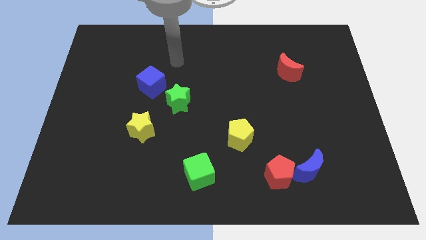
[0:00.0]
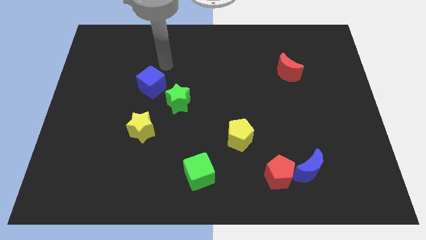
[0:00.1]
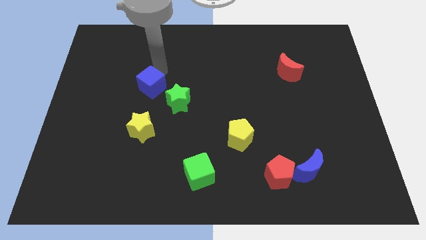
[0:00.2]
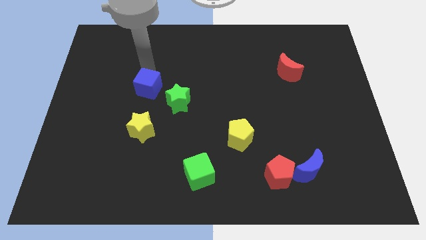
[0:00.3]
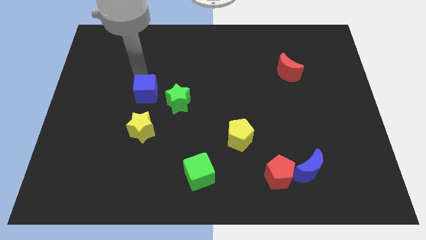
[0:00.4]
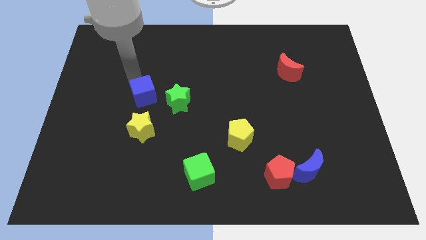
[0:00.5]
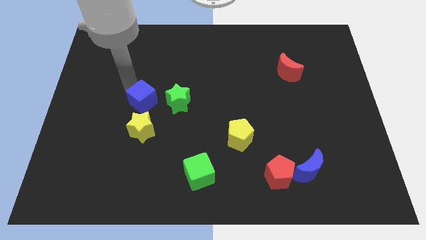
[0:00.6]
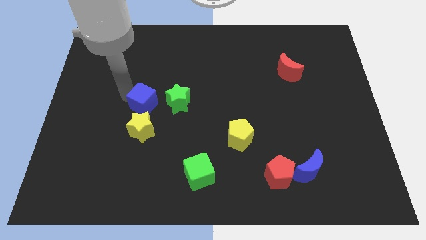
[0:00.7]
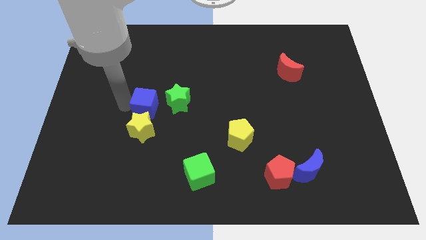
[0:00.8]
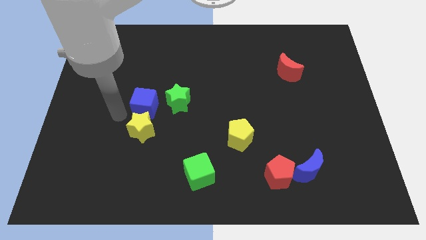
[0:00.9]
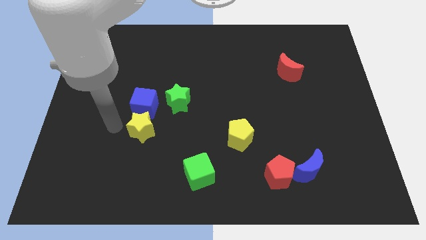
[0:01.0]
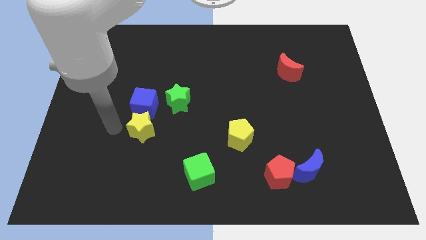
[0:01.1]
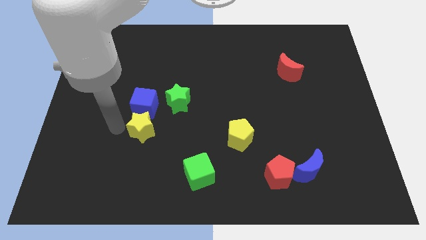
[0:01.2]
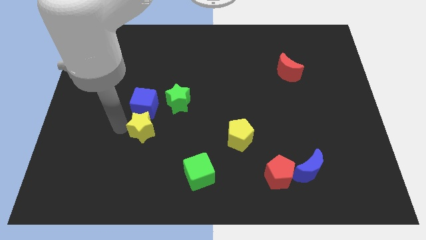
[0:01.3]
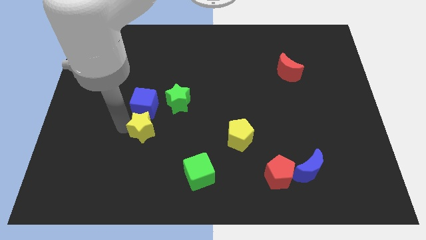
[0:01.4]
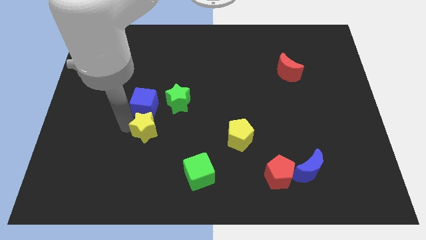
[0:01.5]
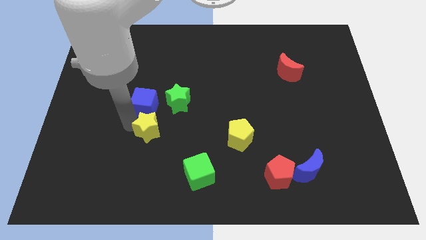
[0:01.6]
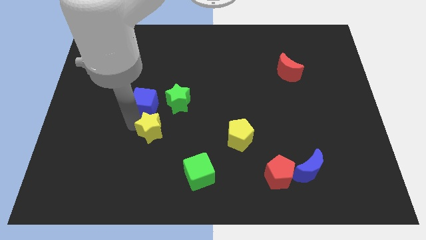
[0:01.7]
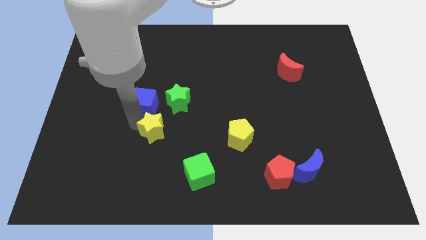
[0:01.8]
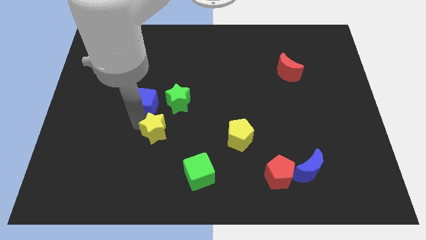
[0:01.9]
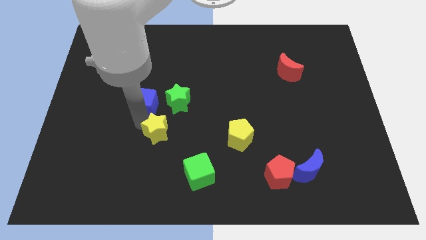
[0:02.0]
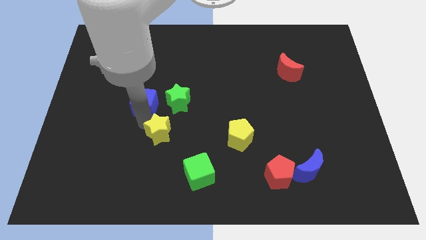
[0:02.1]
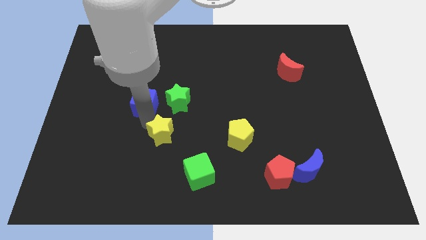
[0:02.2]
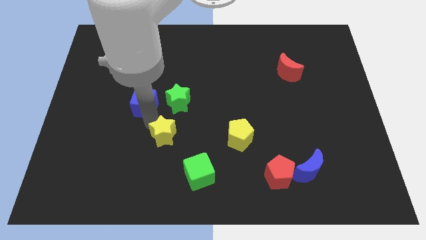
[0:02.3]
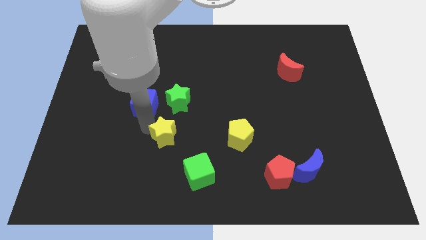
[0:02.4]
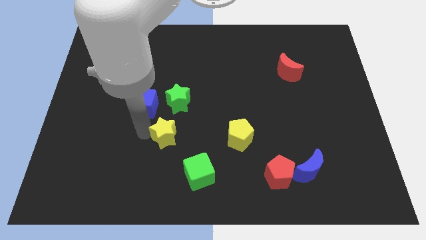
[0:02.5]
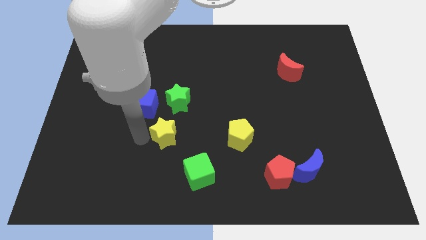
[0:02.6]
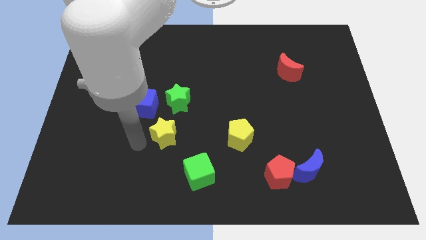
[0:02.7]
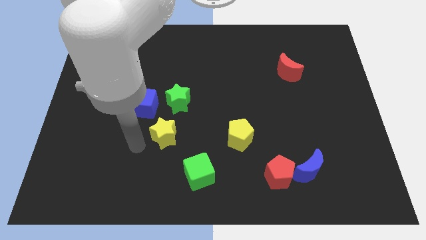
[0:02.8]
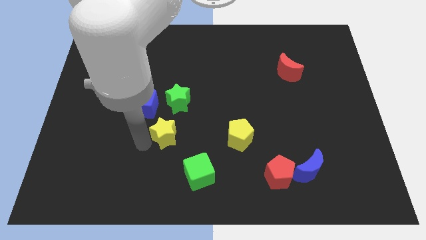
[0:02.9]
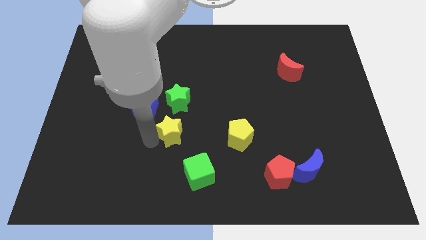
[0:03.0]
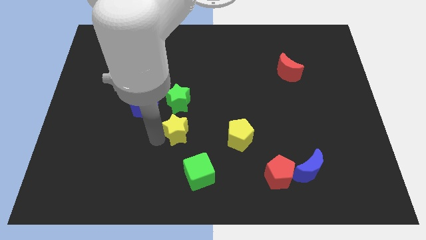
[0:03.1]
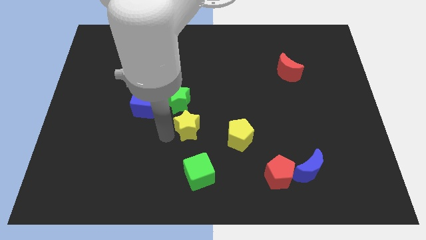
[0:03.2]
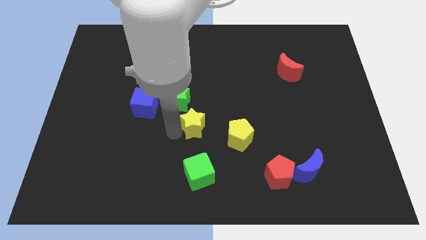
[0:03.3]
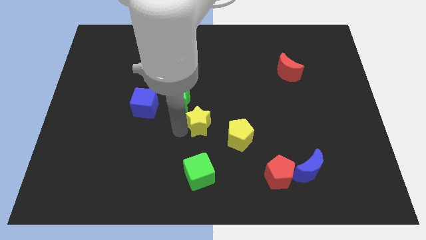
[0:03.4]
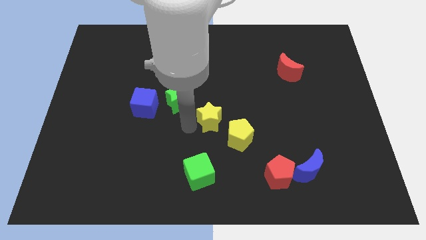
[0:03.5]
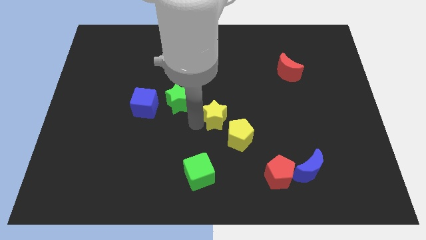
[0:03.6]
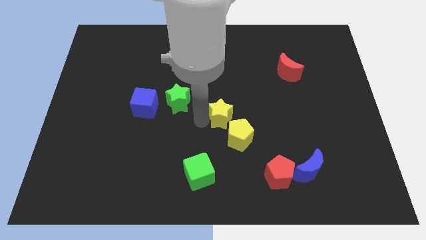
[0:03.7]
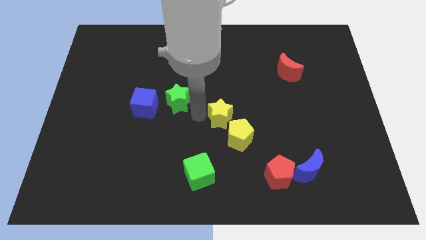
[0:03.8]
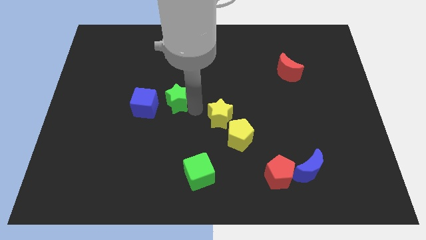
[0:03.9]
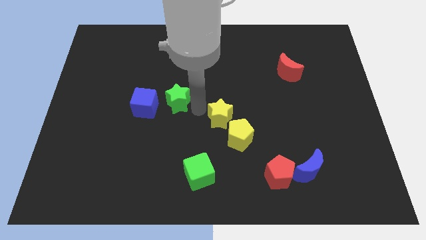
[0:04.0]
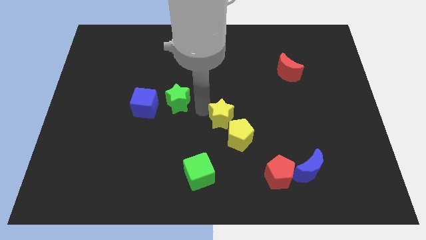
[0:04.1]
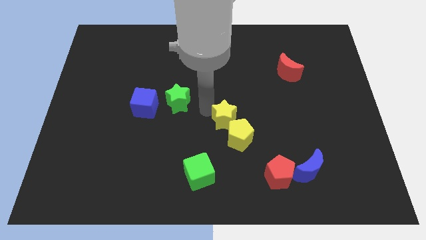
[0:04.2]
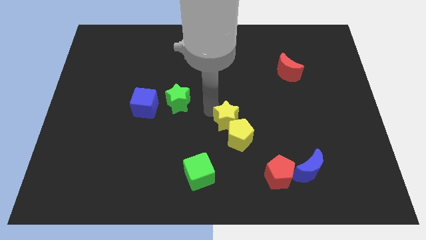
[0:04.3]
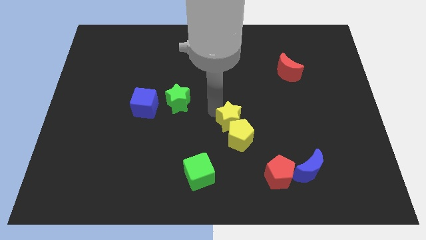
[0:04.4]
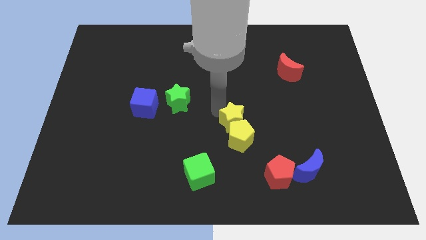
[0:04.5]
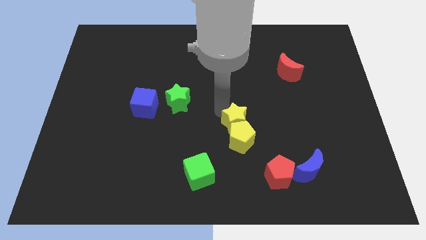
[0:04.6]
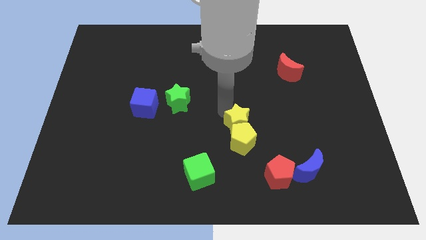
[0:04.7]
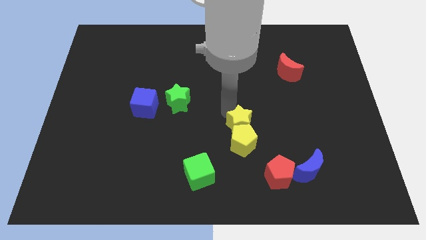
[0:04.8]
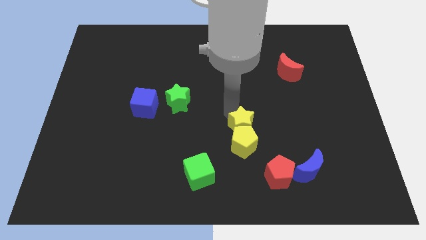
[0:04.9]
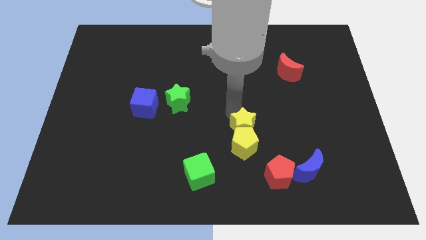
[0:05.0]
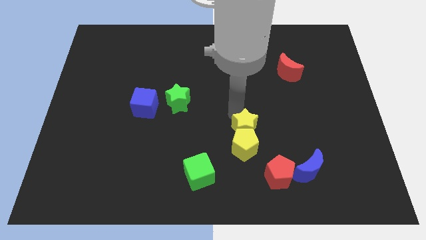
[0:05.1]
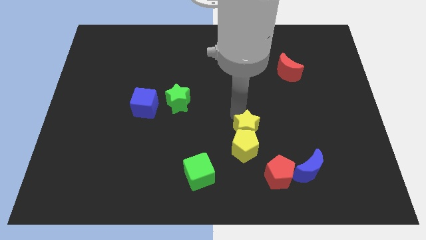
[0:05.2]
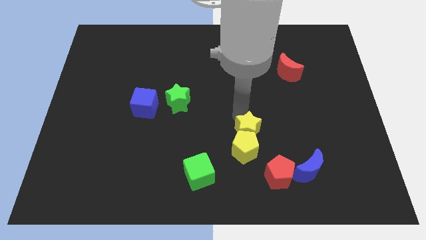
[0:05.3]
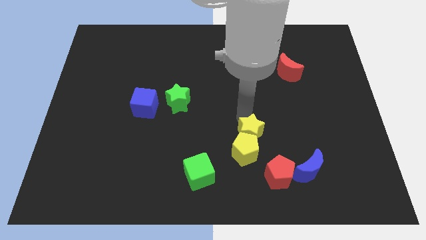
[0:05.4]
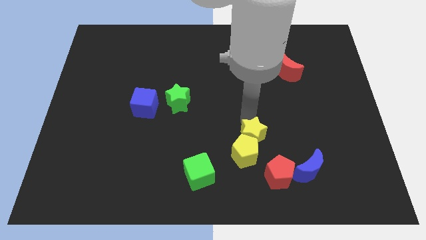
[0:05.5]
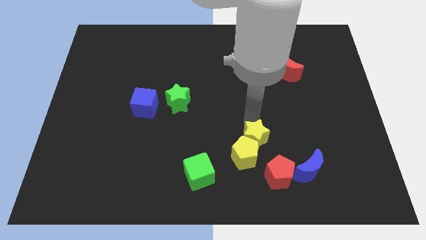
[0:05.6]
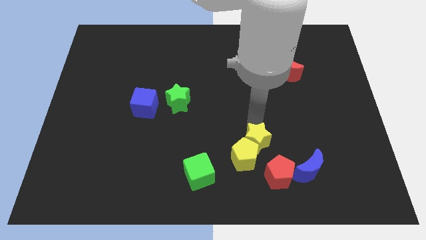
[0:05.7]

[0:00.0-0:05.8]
push the yellow star to the right side of the yellow pentagon

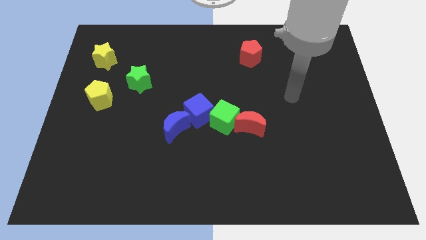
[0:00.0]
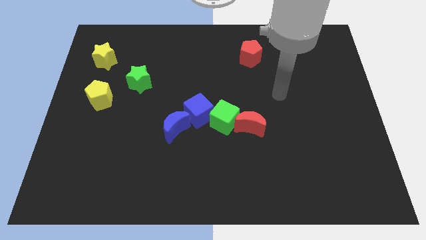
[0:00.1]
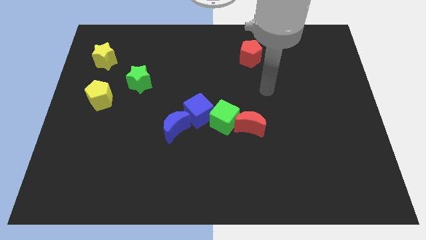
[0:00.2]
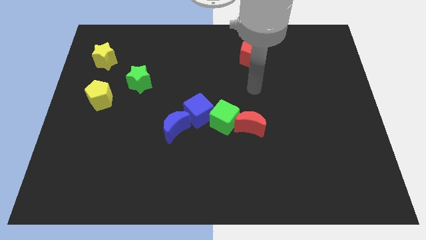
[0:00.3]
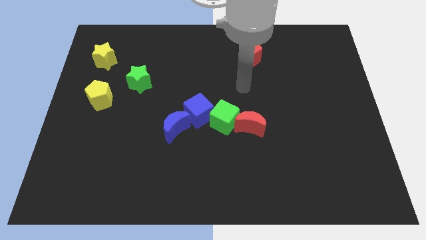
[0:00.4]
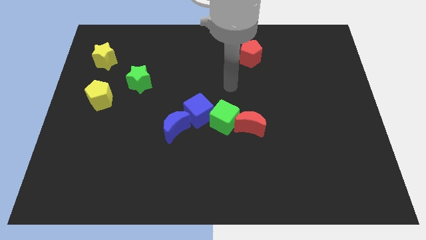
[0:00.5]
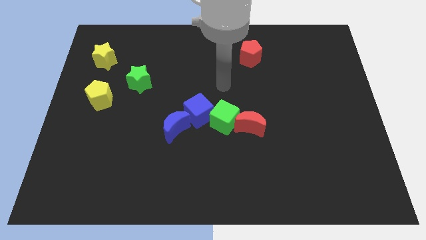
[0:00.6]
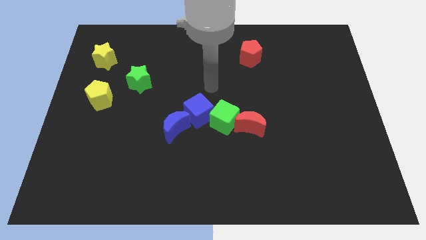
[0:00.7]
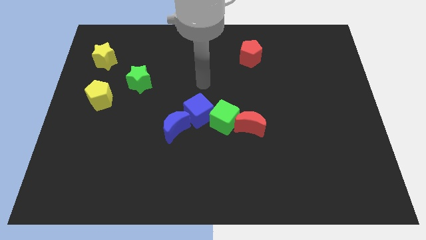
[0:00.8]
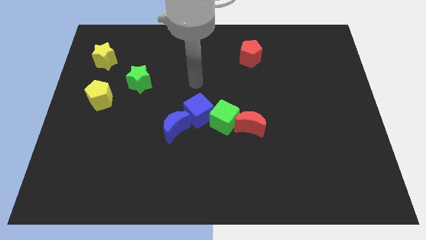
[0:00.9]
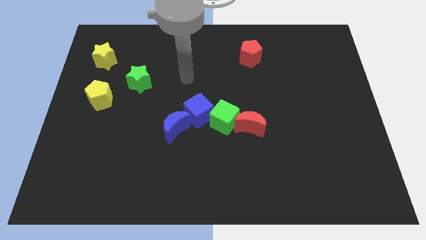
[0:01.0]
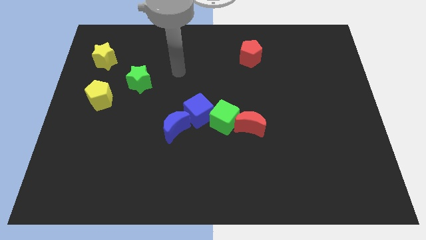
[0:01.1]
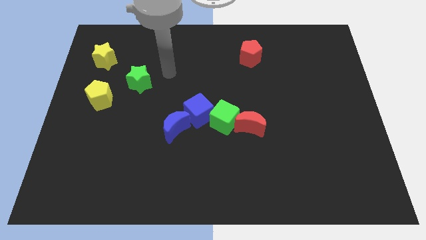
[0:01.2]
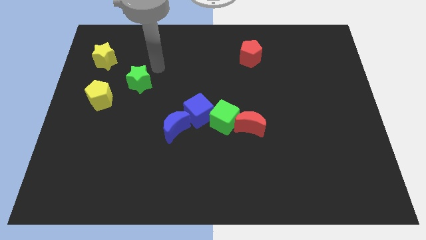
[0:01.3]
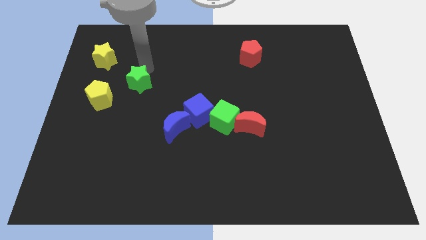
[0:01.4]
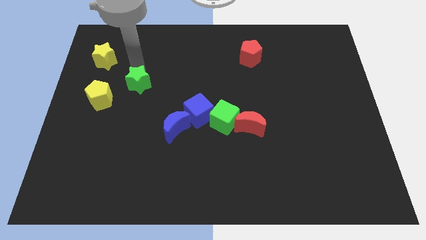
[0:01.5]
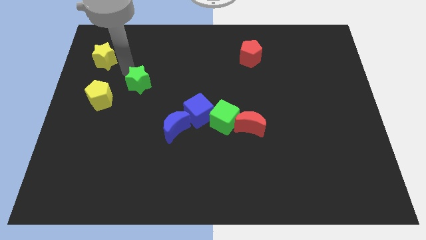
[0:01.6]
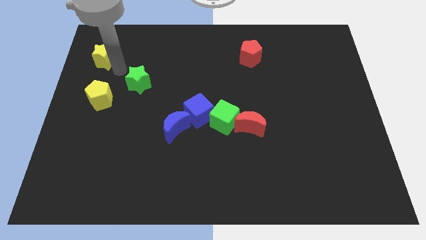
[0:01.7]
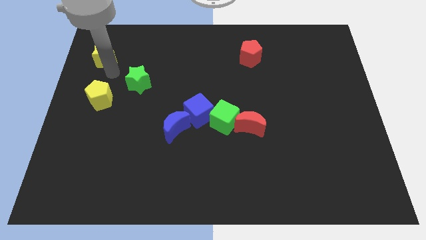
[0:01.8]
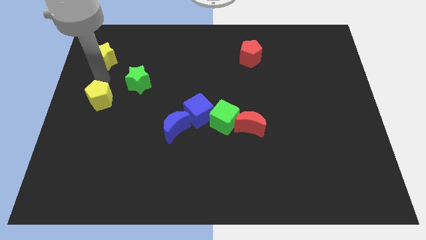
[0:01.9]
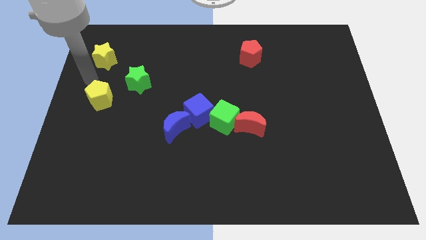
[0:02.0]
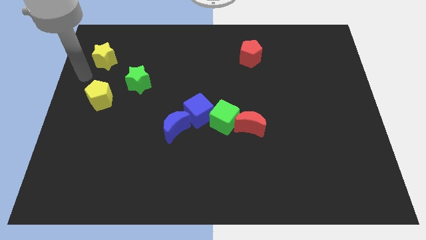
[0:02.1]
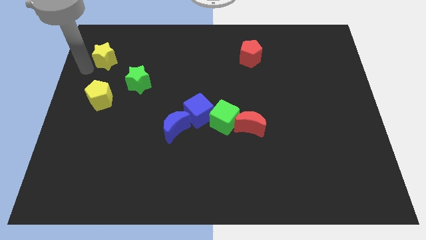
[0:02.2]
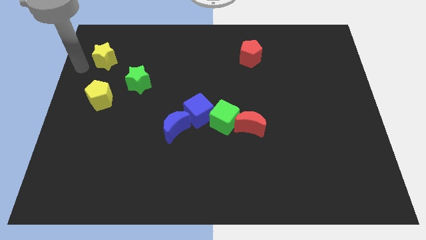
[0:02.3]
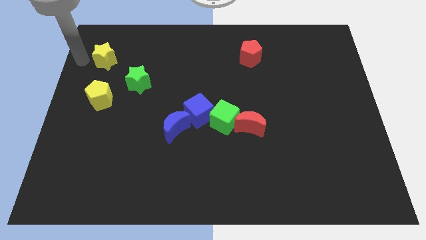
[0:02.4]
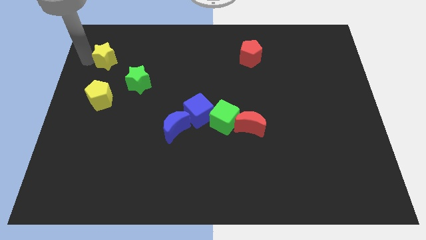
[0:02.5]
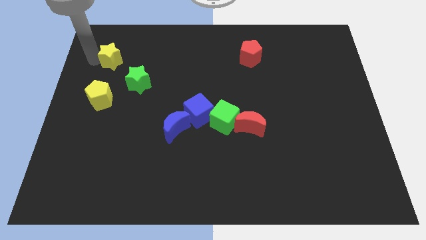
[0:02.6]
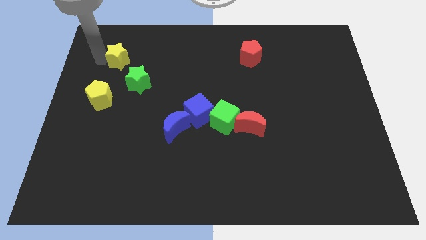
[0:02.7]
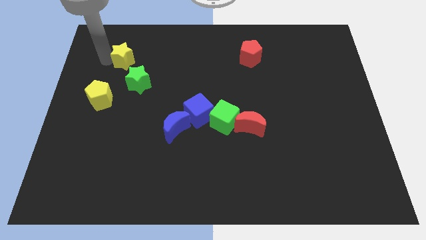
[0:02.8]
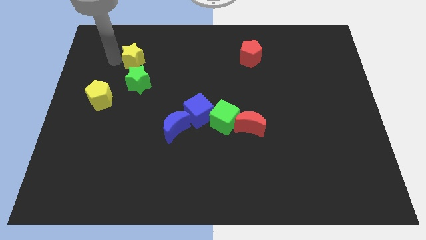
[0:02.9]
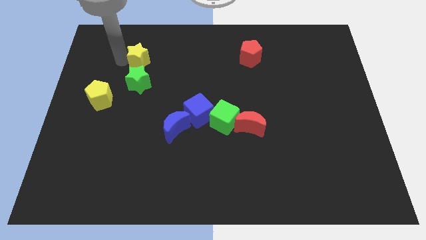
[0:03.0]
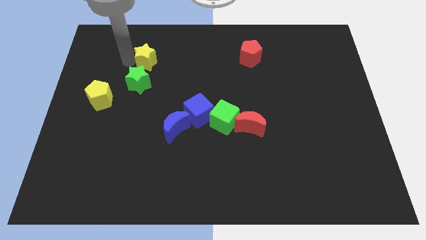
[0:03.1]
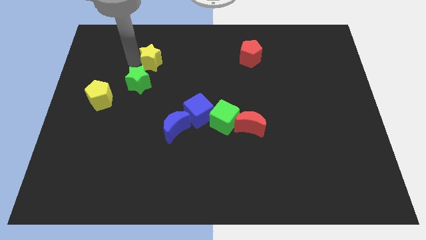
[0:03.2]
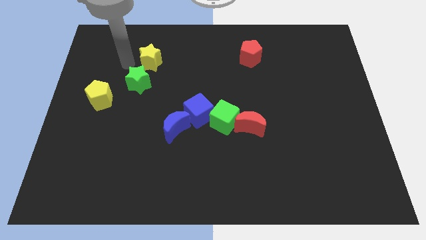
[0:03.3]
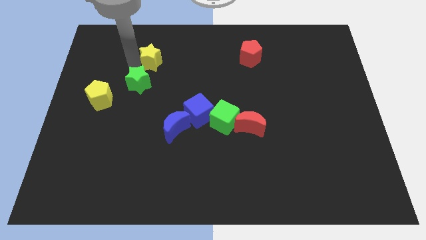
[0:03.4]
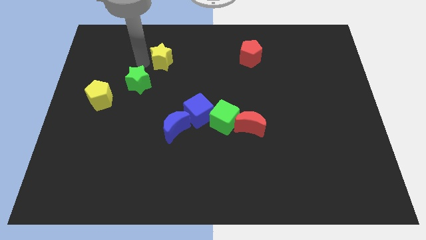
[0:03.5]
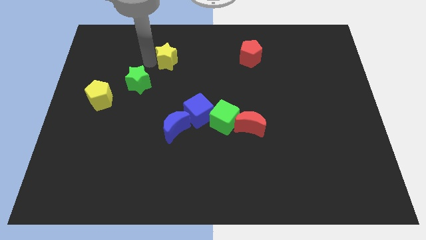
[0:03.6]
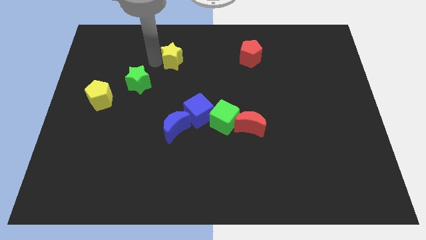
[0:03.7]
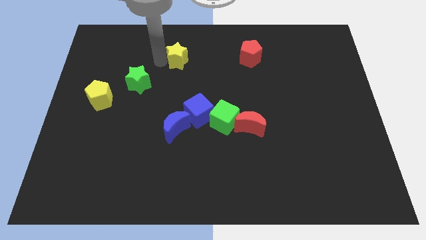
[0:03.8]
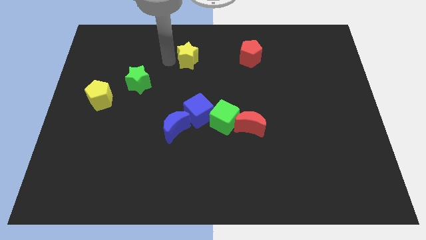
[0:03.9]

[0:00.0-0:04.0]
move the yellow star to the left side of the red pentagon
